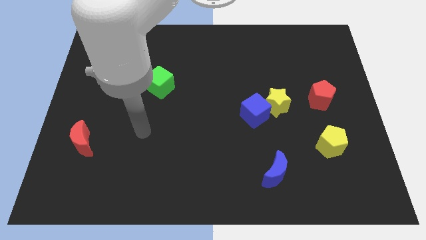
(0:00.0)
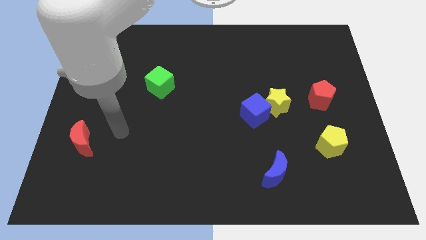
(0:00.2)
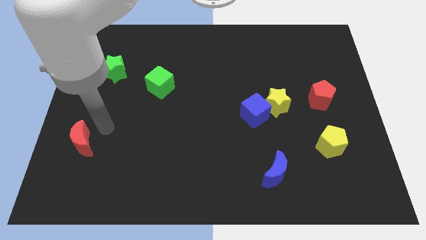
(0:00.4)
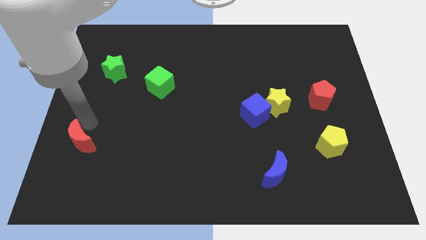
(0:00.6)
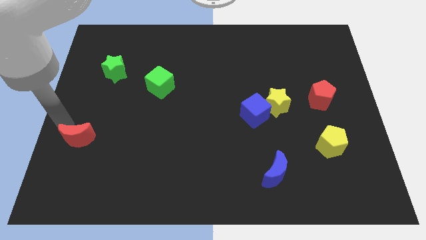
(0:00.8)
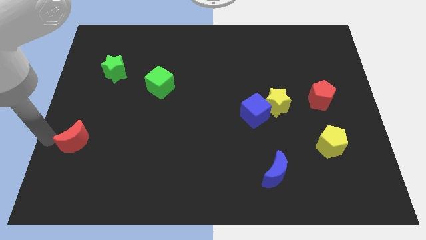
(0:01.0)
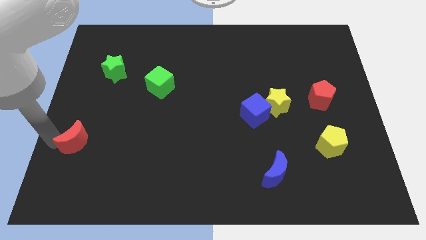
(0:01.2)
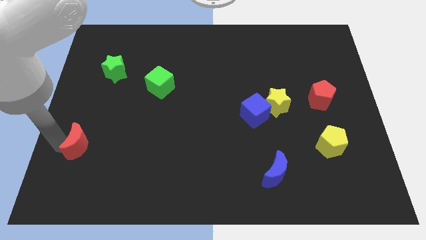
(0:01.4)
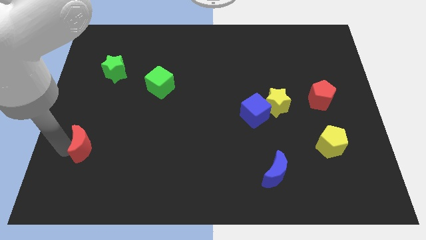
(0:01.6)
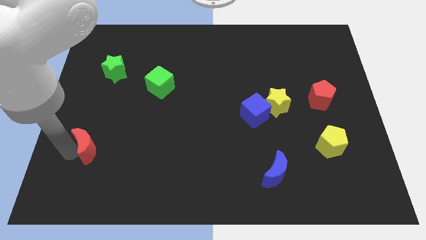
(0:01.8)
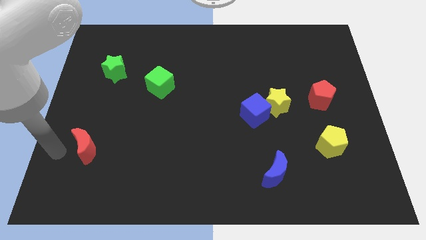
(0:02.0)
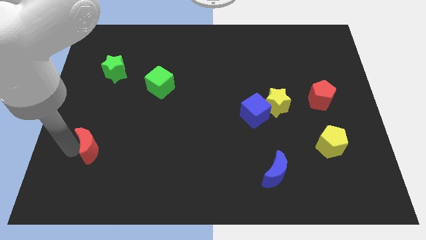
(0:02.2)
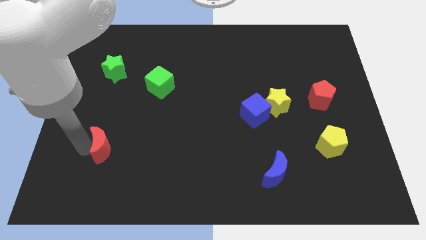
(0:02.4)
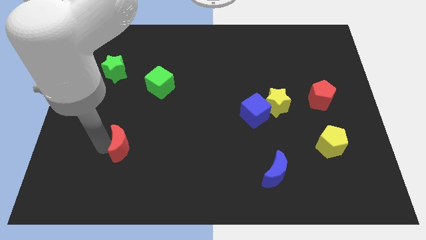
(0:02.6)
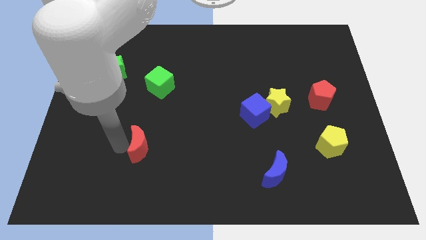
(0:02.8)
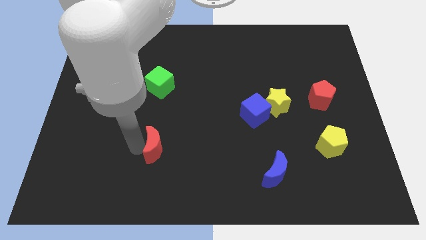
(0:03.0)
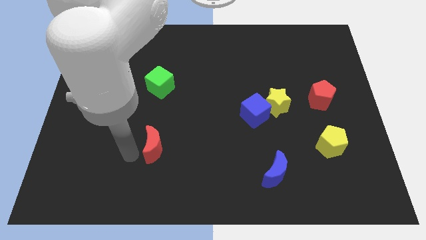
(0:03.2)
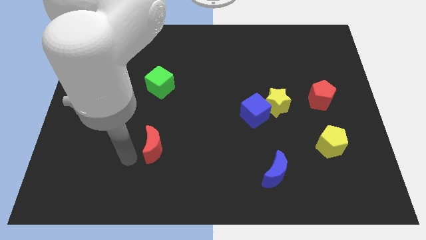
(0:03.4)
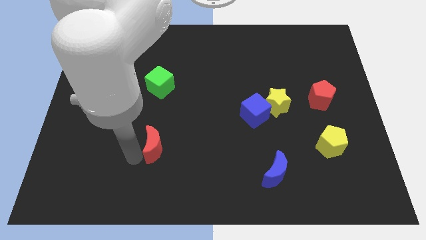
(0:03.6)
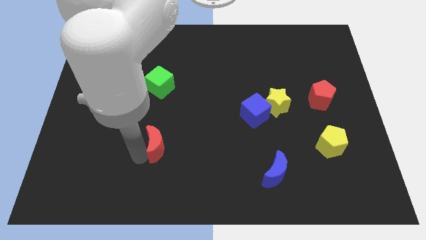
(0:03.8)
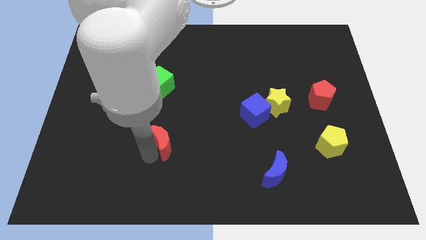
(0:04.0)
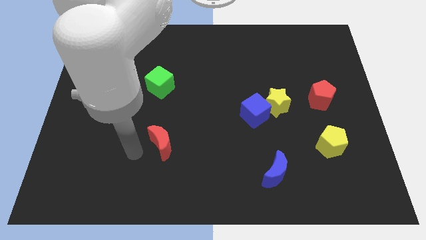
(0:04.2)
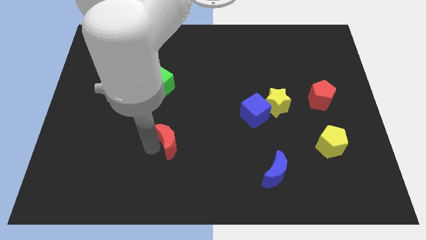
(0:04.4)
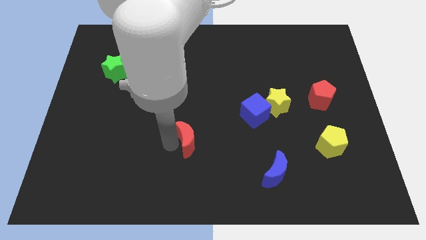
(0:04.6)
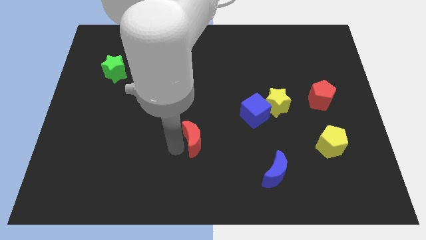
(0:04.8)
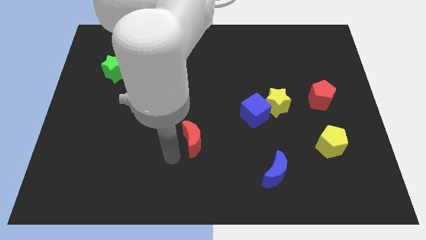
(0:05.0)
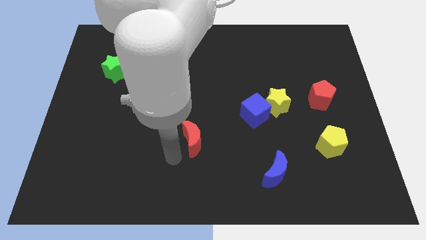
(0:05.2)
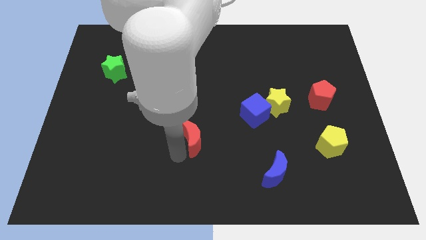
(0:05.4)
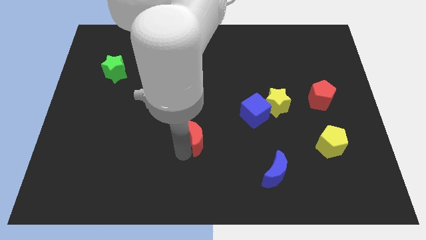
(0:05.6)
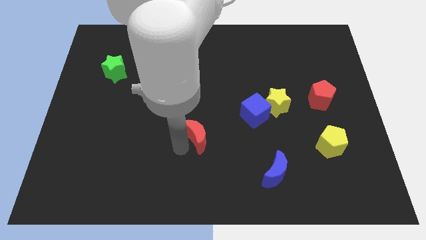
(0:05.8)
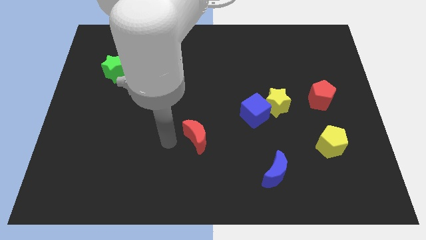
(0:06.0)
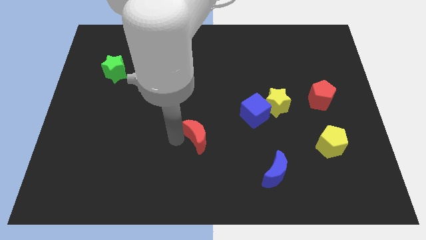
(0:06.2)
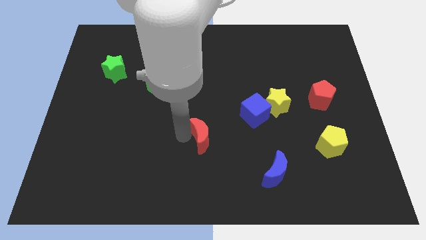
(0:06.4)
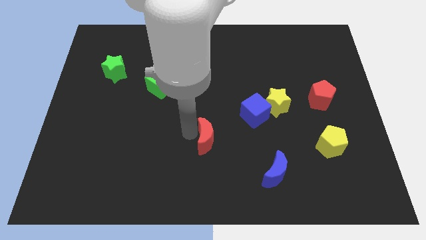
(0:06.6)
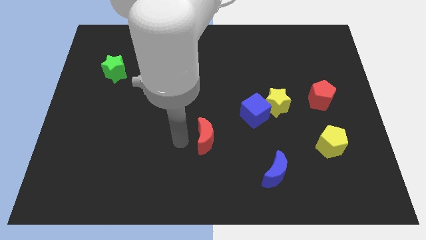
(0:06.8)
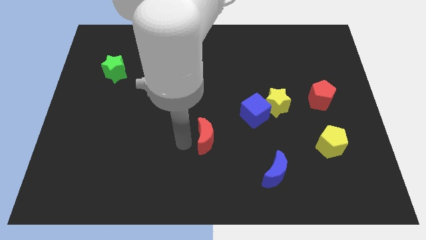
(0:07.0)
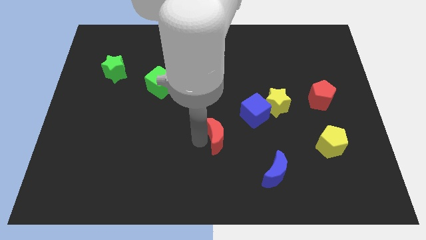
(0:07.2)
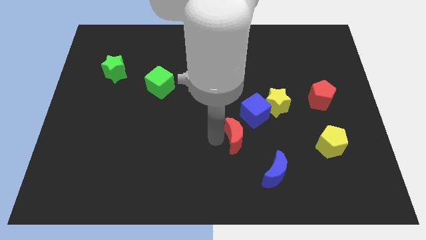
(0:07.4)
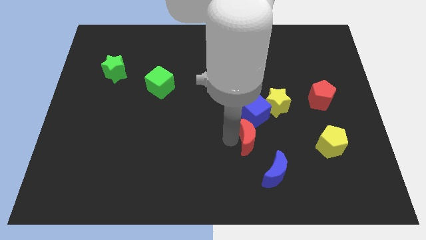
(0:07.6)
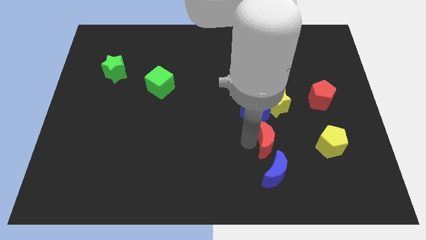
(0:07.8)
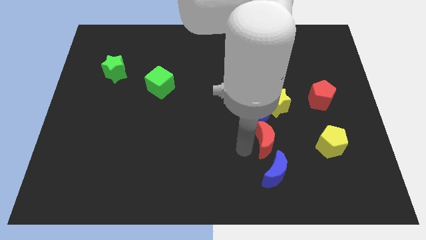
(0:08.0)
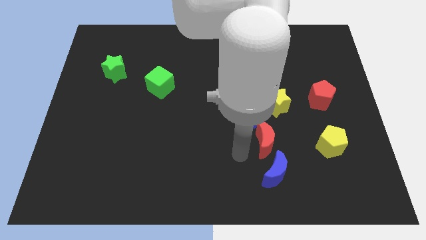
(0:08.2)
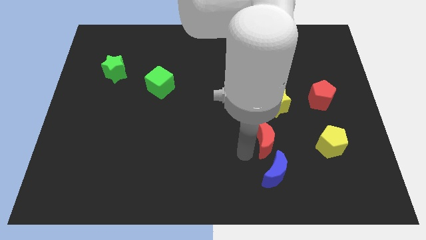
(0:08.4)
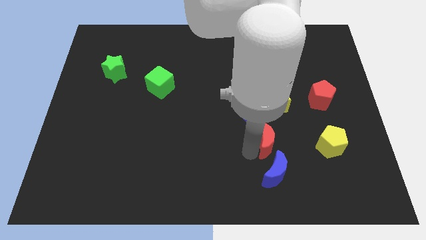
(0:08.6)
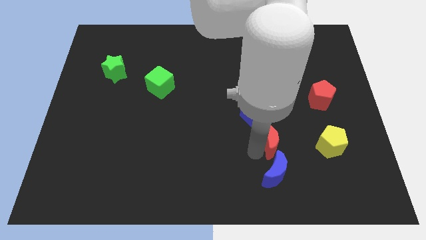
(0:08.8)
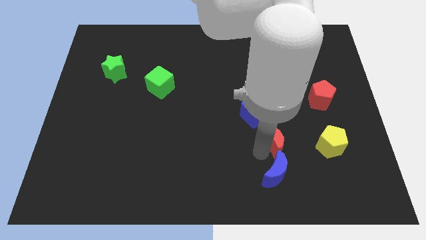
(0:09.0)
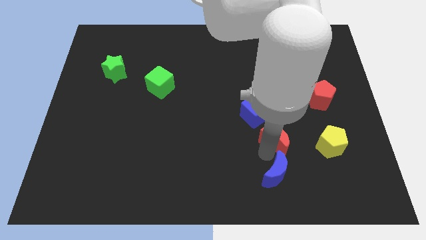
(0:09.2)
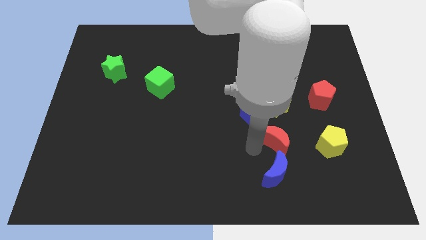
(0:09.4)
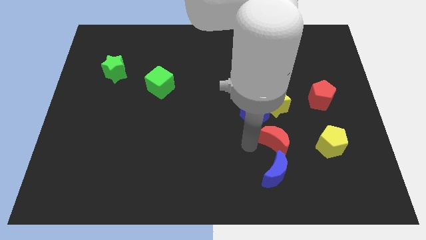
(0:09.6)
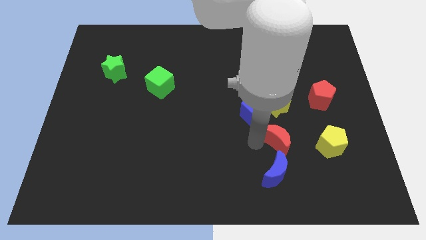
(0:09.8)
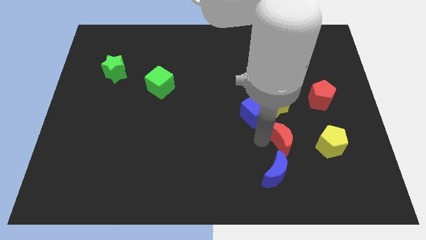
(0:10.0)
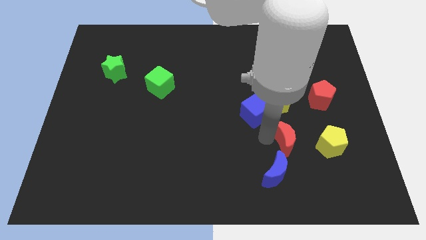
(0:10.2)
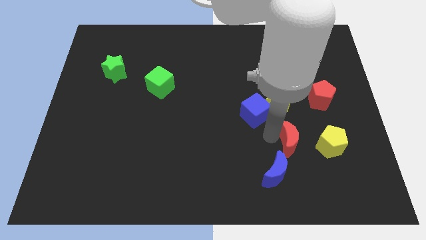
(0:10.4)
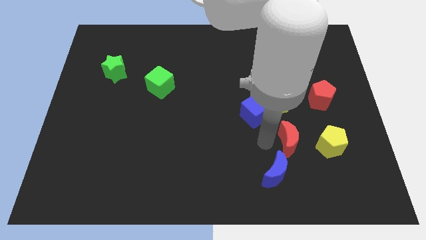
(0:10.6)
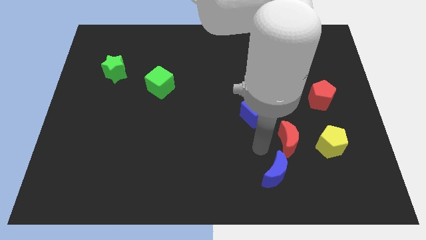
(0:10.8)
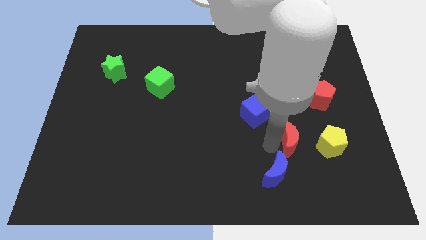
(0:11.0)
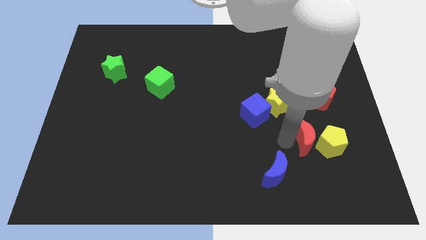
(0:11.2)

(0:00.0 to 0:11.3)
slide the red moon next to the yellow pentagon

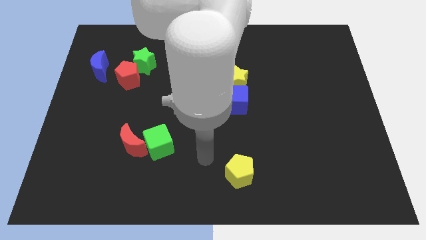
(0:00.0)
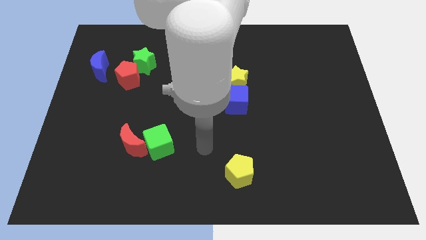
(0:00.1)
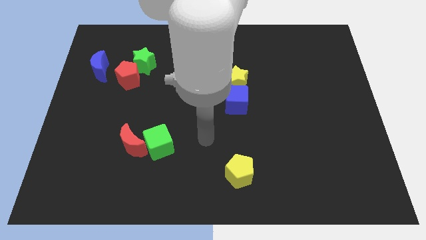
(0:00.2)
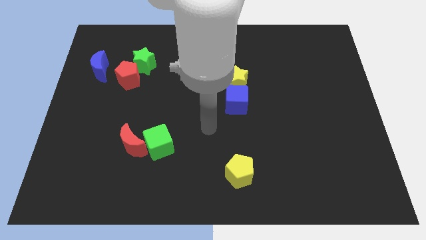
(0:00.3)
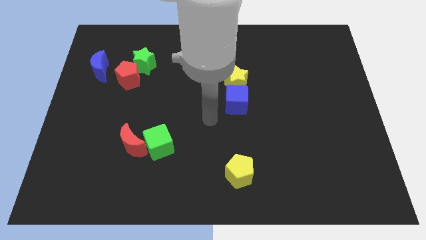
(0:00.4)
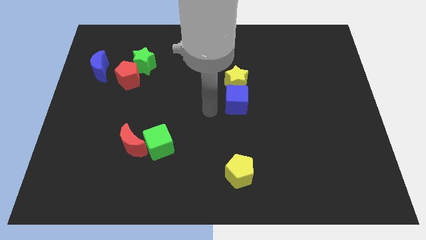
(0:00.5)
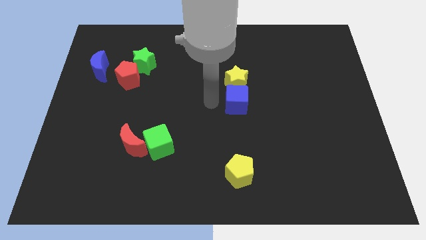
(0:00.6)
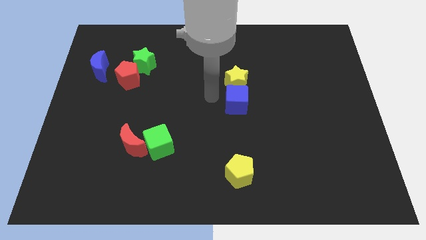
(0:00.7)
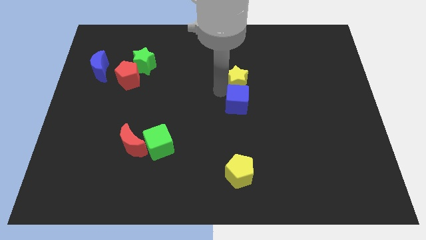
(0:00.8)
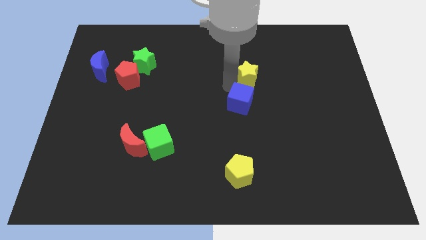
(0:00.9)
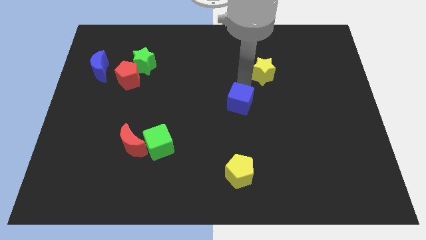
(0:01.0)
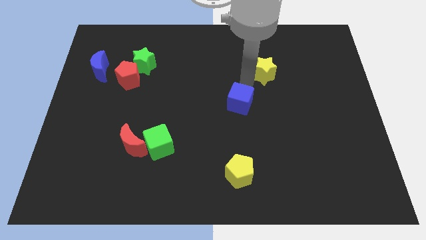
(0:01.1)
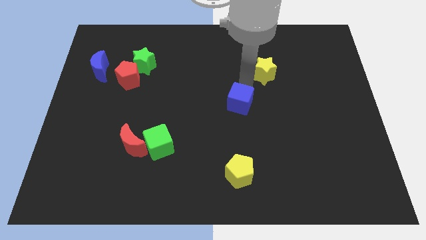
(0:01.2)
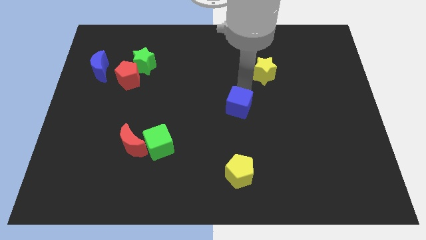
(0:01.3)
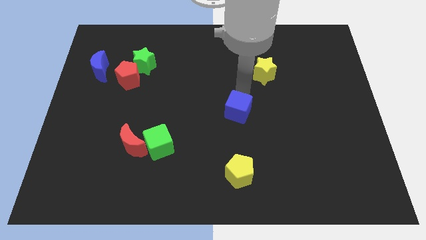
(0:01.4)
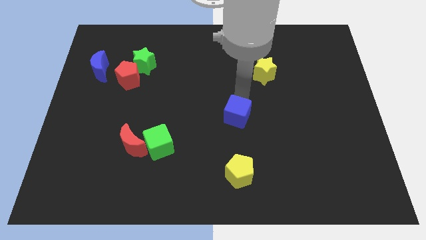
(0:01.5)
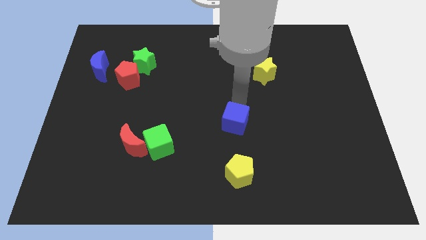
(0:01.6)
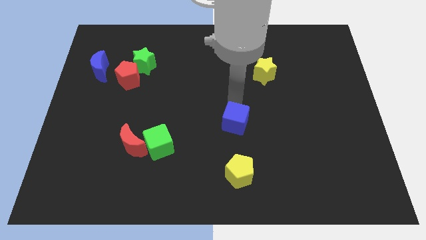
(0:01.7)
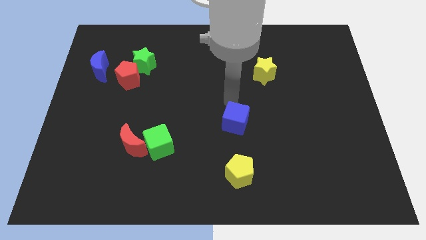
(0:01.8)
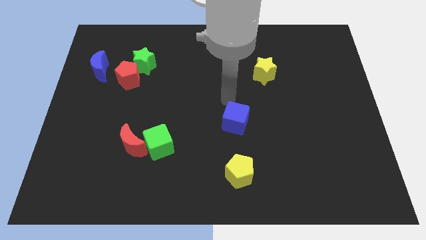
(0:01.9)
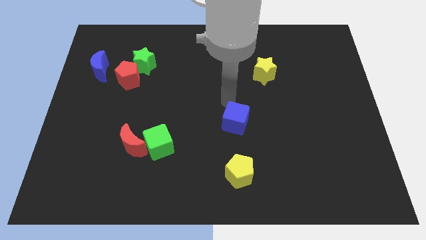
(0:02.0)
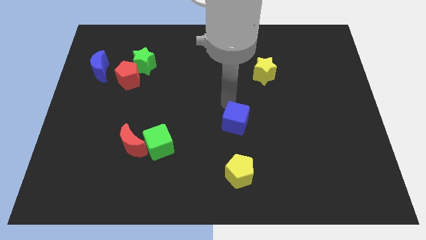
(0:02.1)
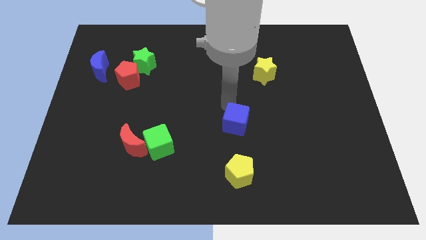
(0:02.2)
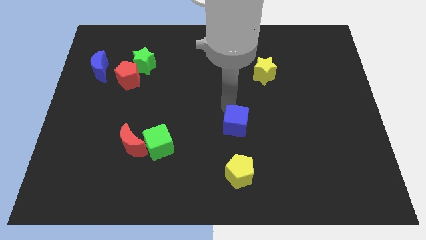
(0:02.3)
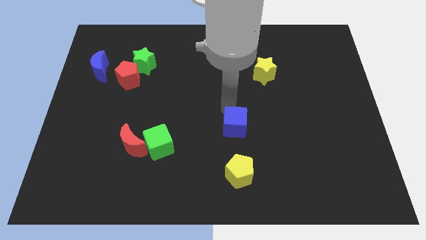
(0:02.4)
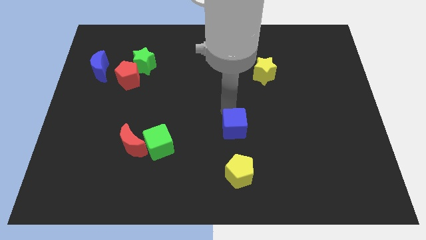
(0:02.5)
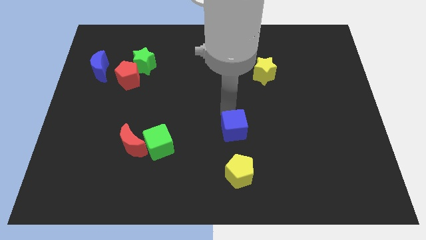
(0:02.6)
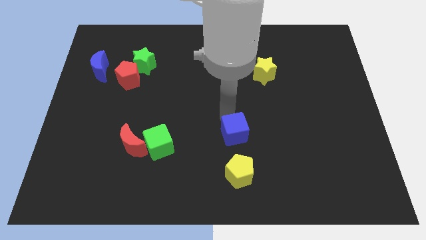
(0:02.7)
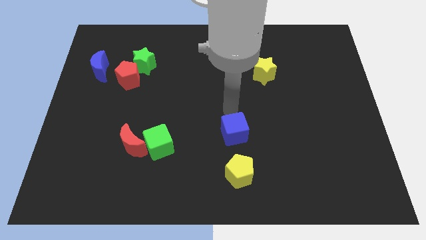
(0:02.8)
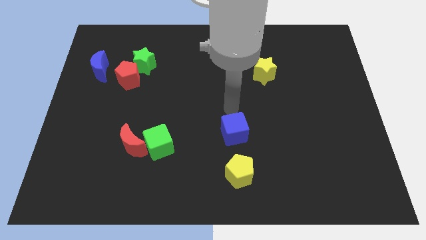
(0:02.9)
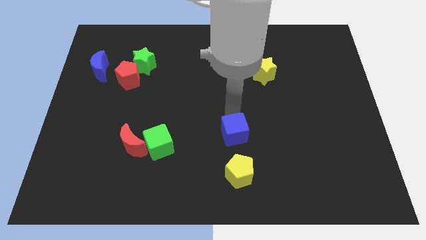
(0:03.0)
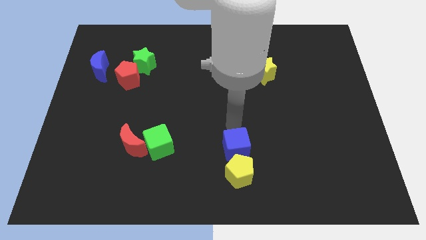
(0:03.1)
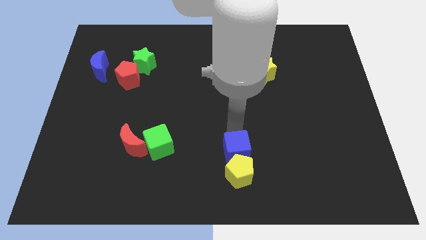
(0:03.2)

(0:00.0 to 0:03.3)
put the blue cube to the yellow pentagon
